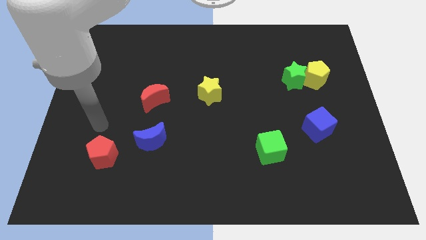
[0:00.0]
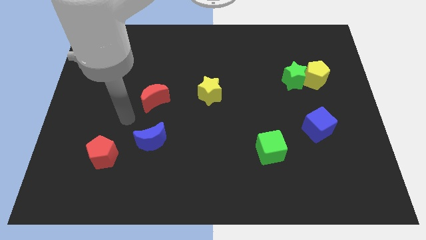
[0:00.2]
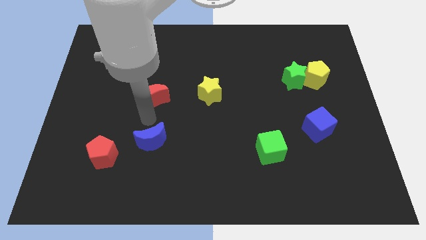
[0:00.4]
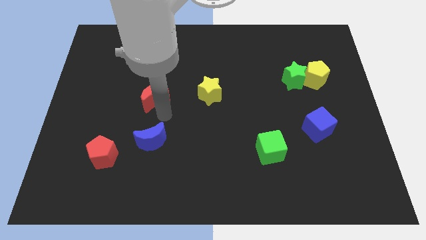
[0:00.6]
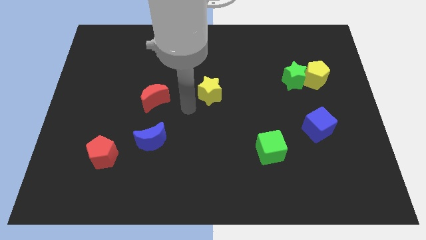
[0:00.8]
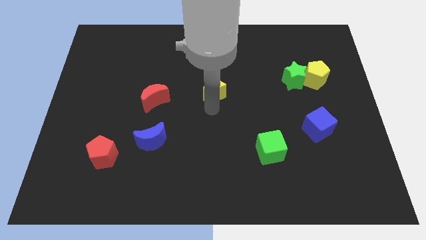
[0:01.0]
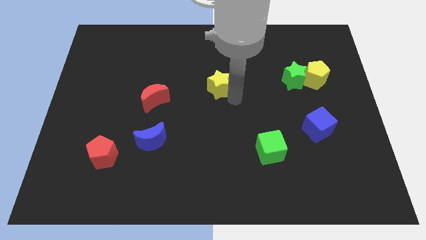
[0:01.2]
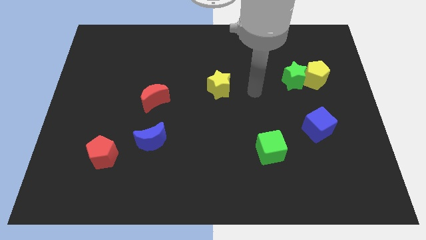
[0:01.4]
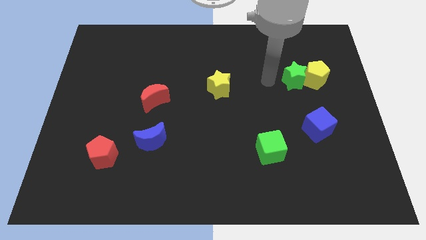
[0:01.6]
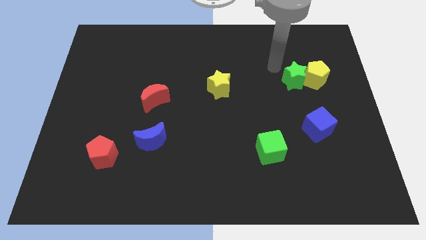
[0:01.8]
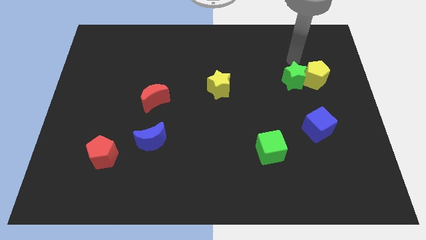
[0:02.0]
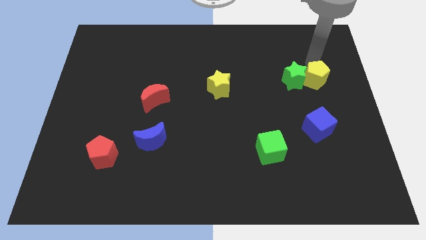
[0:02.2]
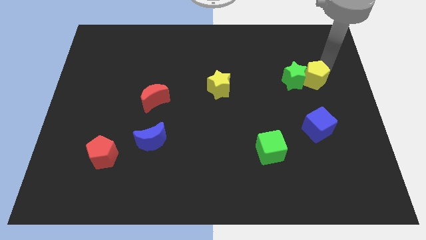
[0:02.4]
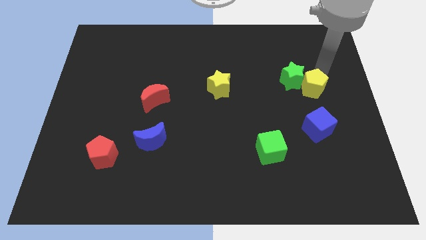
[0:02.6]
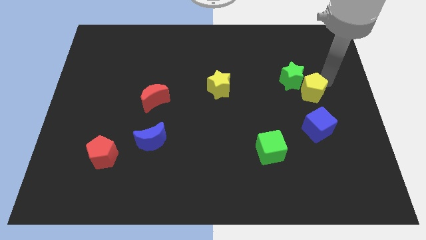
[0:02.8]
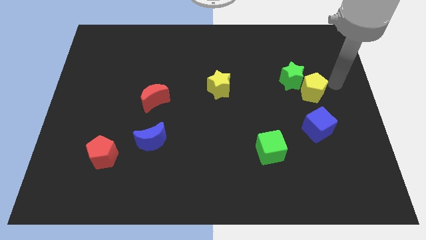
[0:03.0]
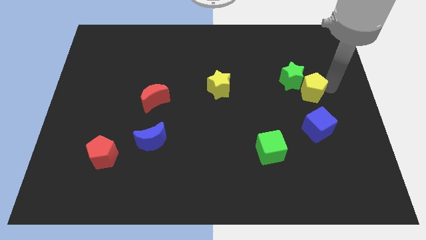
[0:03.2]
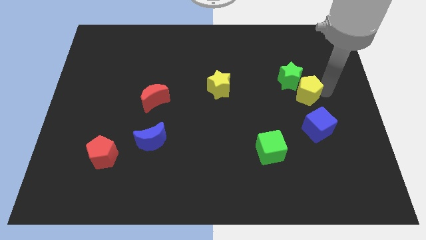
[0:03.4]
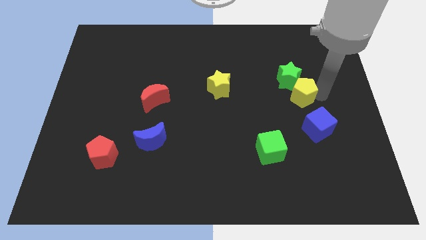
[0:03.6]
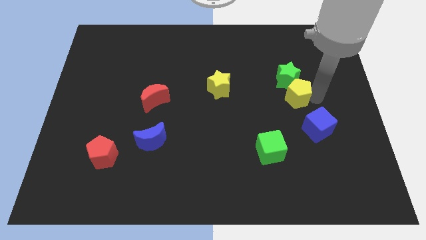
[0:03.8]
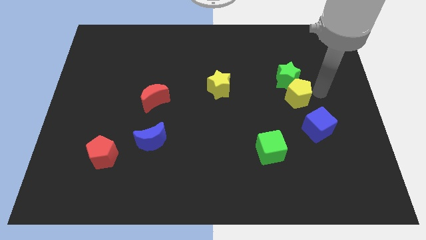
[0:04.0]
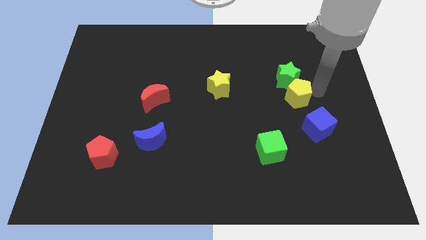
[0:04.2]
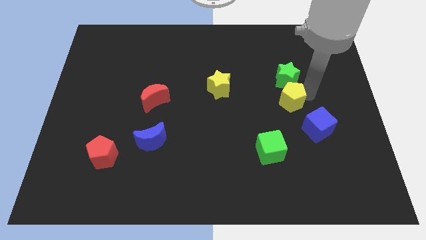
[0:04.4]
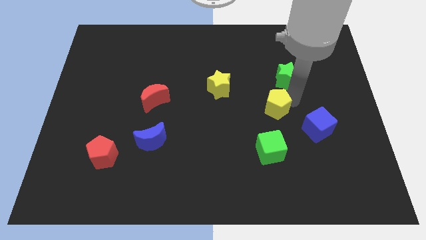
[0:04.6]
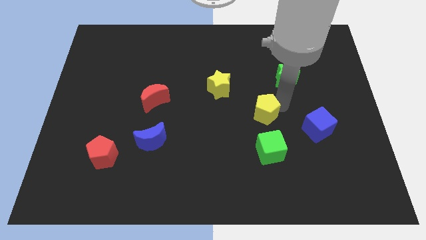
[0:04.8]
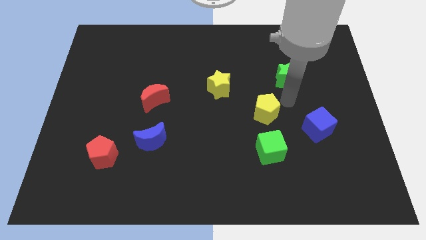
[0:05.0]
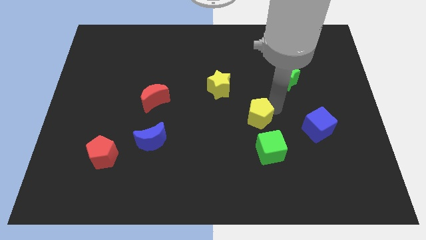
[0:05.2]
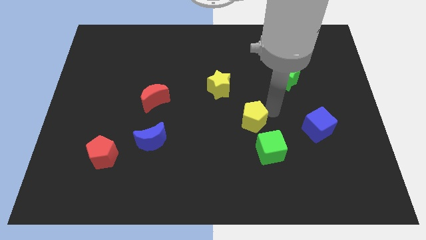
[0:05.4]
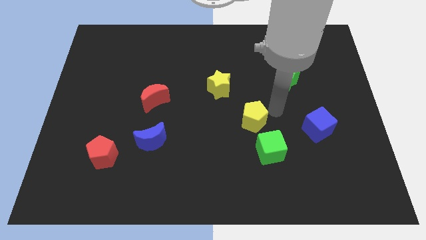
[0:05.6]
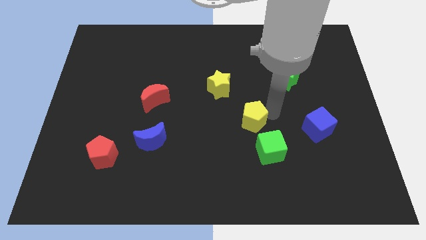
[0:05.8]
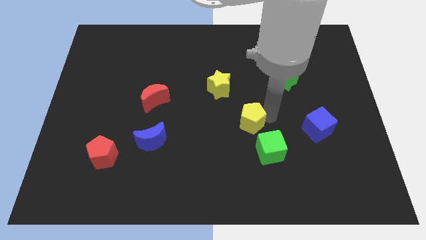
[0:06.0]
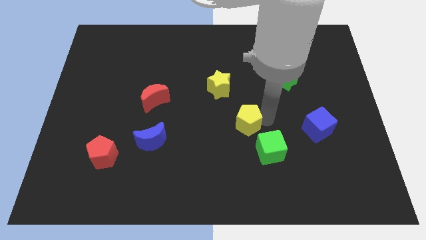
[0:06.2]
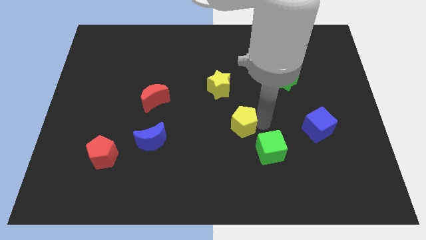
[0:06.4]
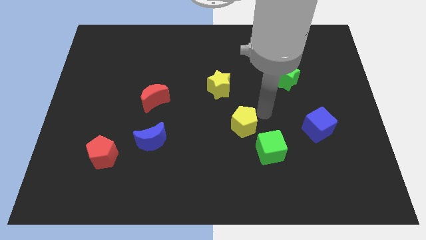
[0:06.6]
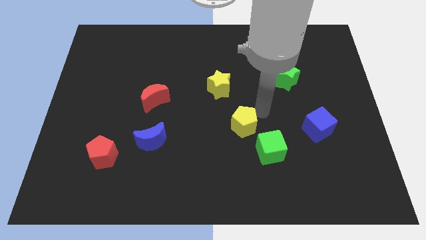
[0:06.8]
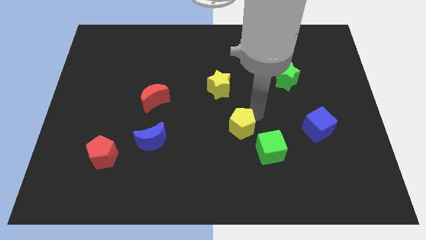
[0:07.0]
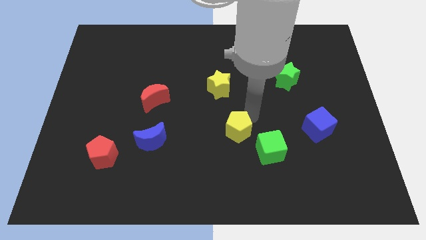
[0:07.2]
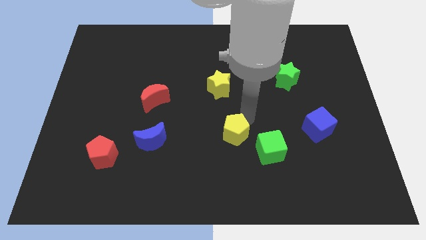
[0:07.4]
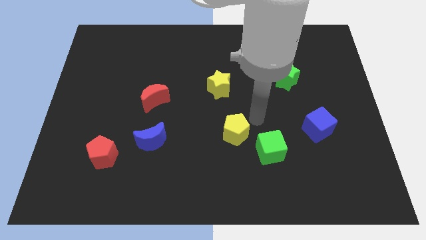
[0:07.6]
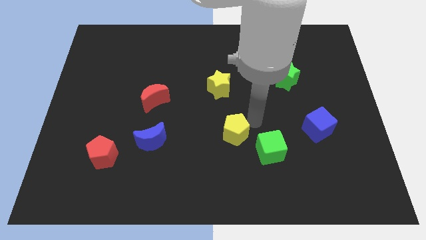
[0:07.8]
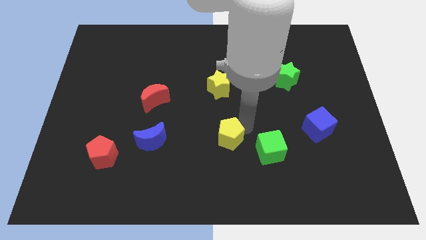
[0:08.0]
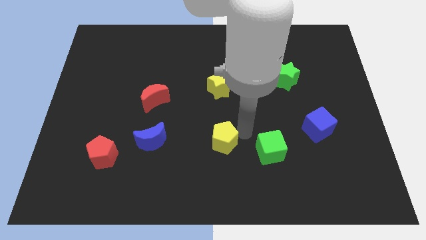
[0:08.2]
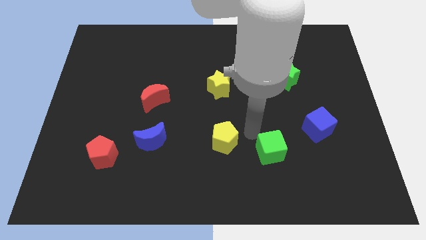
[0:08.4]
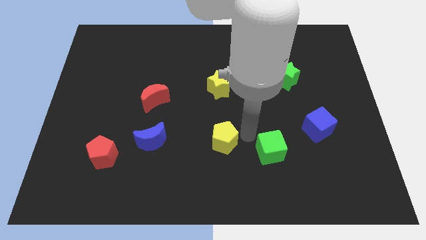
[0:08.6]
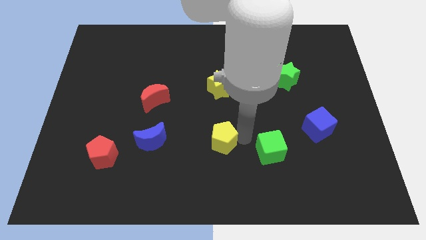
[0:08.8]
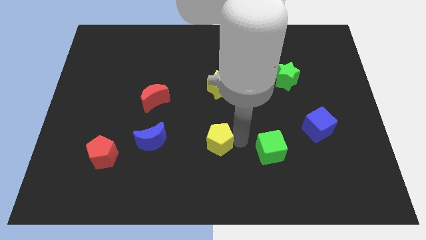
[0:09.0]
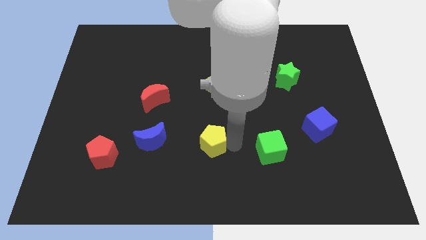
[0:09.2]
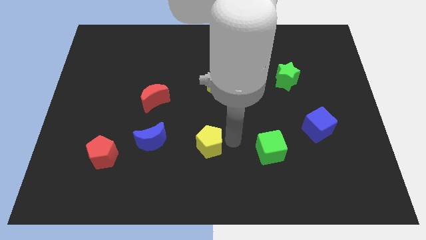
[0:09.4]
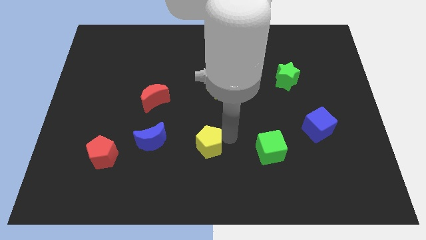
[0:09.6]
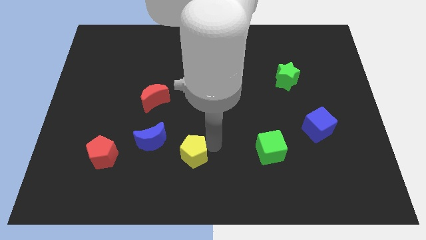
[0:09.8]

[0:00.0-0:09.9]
move the yellow pentagon diagonally down and to the right of the blue moon

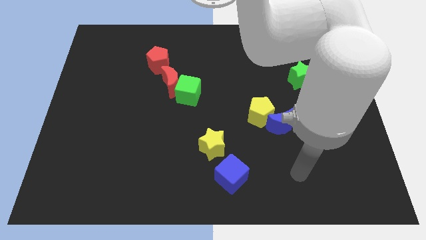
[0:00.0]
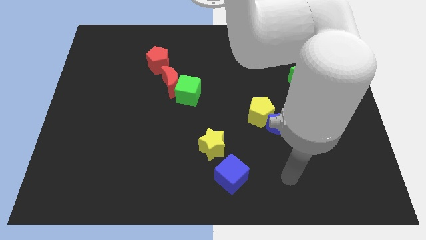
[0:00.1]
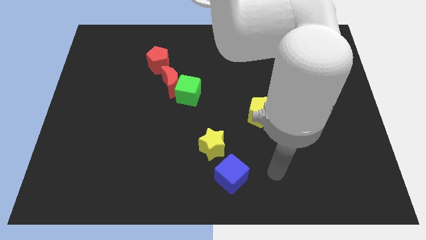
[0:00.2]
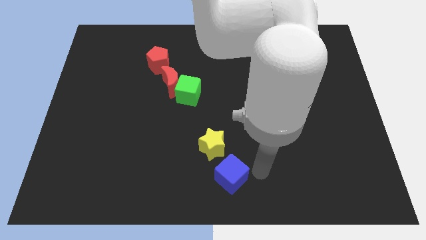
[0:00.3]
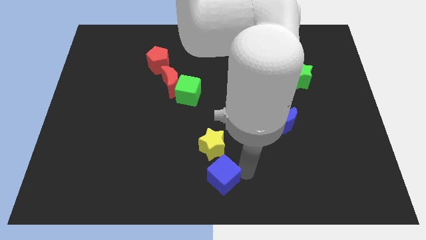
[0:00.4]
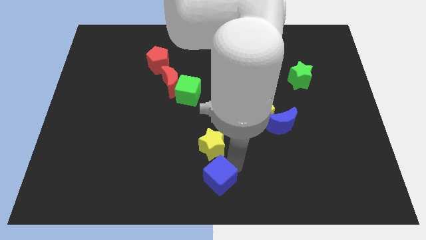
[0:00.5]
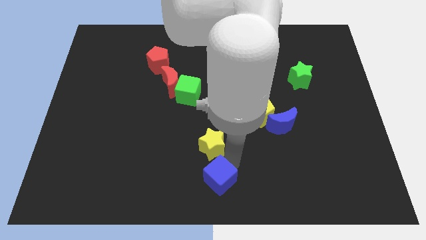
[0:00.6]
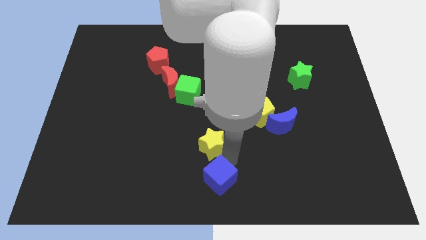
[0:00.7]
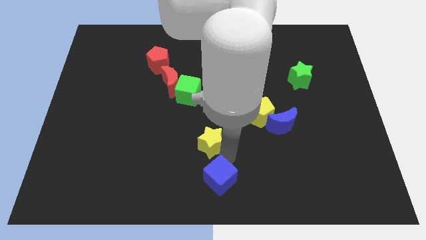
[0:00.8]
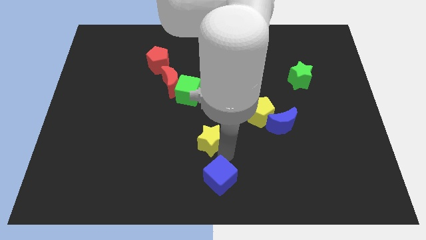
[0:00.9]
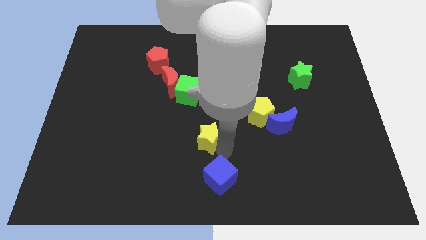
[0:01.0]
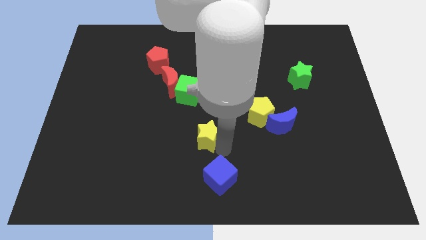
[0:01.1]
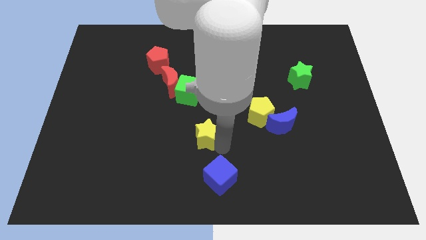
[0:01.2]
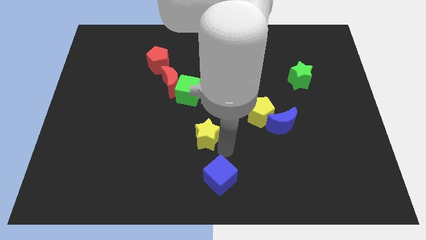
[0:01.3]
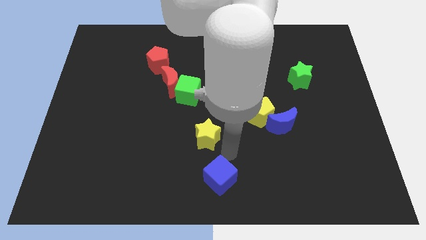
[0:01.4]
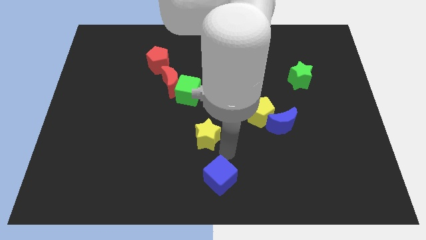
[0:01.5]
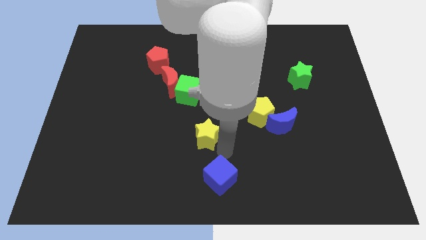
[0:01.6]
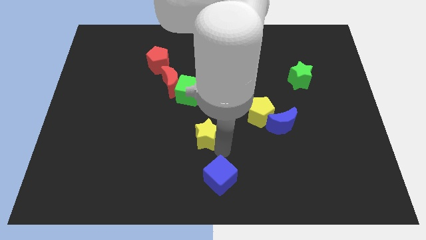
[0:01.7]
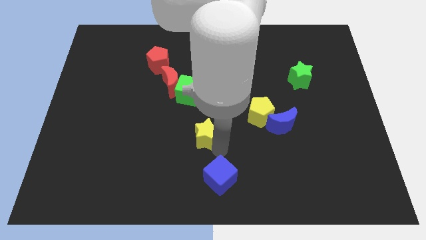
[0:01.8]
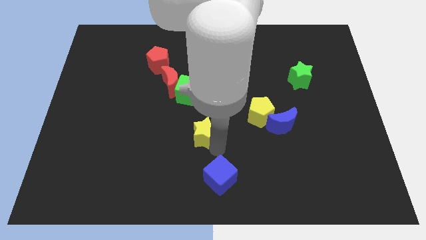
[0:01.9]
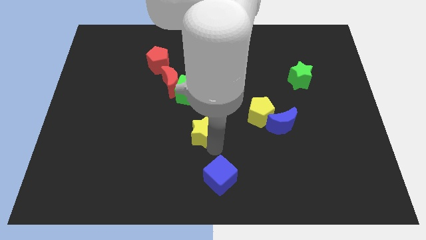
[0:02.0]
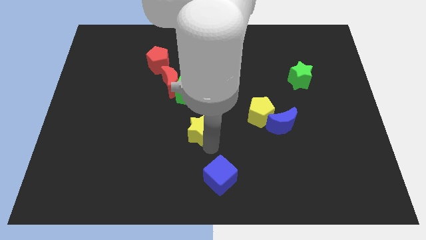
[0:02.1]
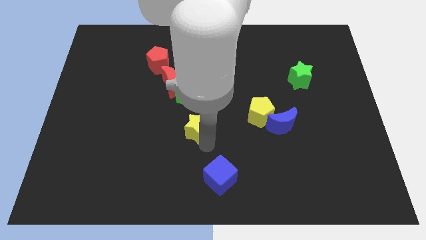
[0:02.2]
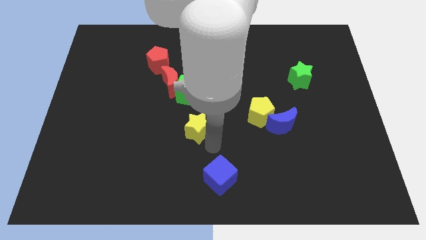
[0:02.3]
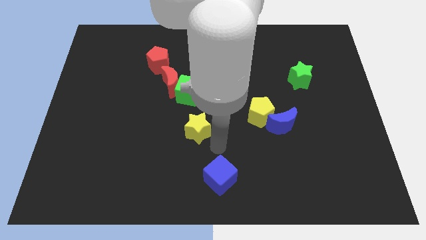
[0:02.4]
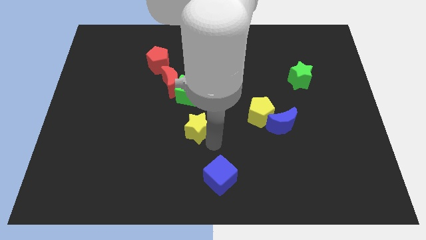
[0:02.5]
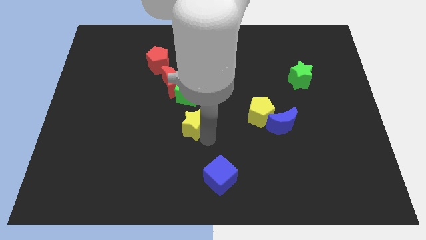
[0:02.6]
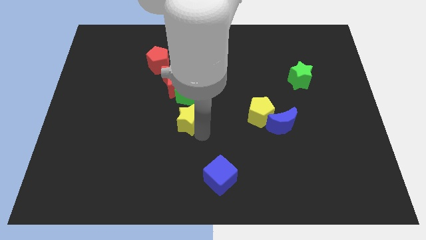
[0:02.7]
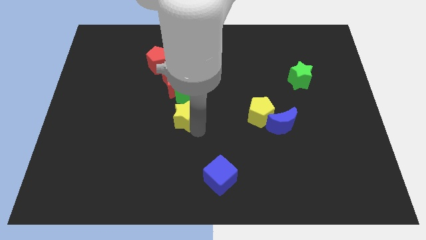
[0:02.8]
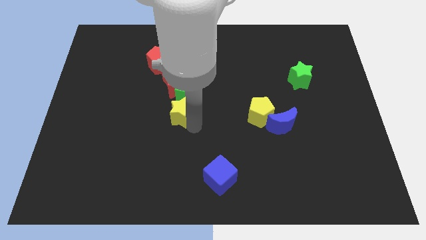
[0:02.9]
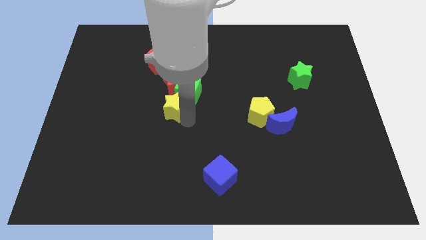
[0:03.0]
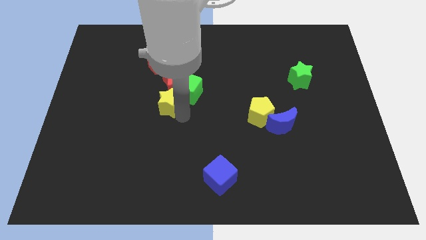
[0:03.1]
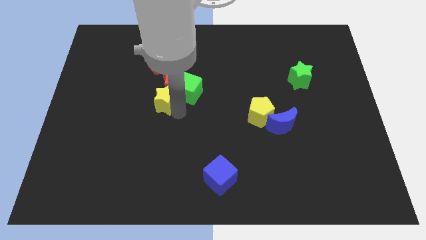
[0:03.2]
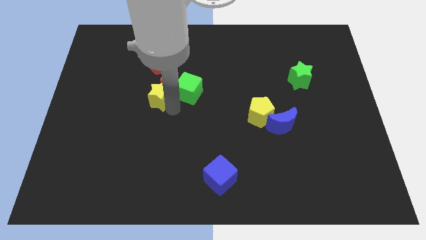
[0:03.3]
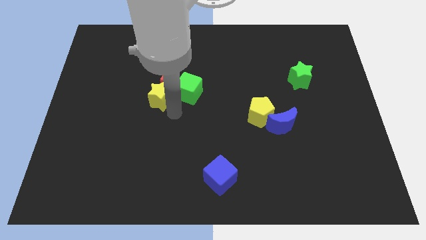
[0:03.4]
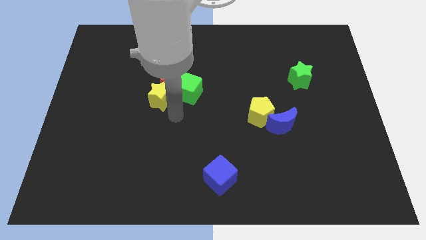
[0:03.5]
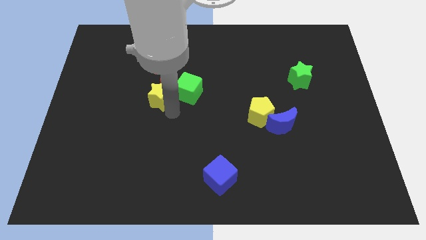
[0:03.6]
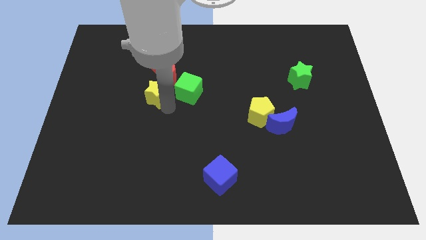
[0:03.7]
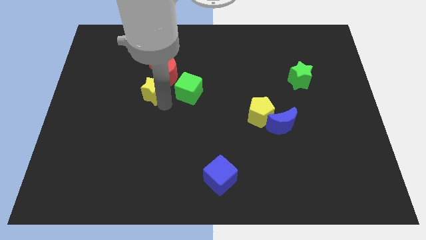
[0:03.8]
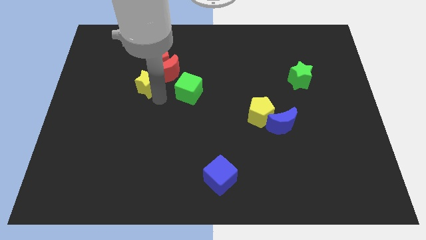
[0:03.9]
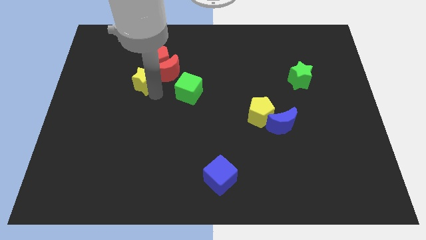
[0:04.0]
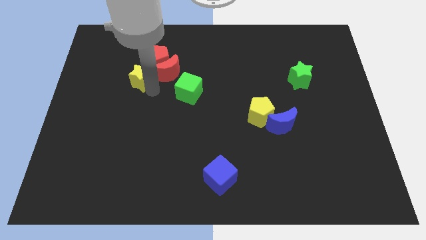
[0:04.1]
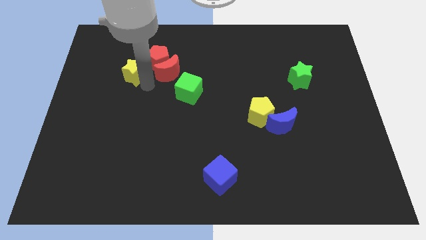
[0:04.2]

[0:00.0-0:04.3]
slide the yellow star to the left of the red pentagon
